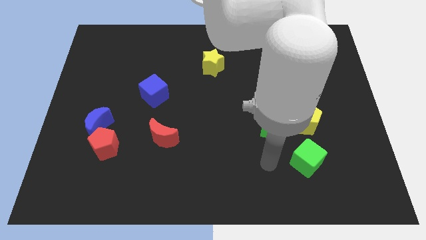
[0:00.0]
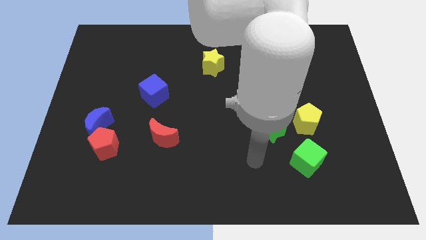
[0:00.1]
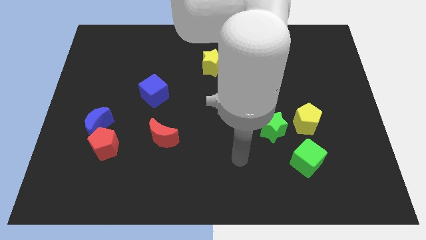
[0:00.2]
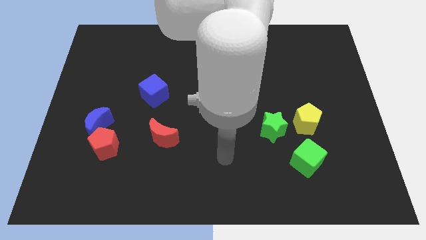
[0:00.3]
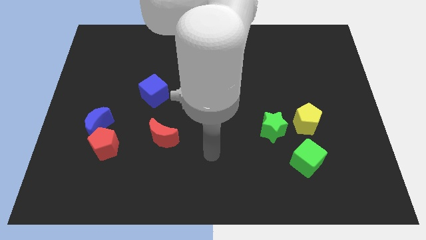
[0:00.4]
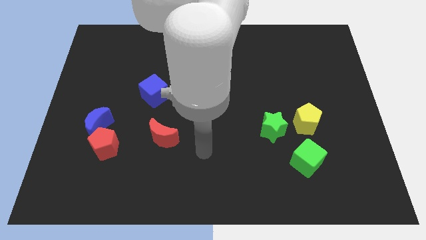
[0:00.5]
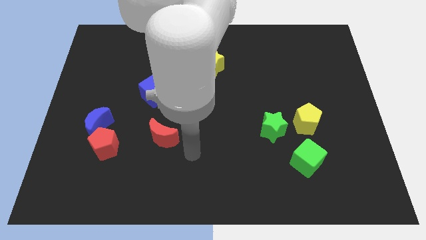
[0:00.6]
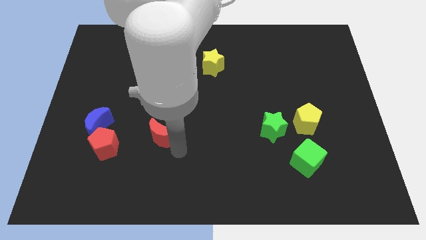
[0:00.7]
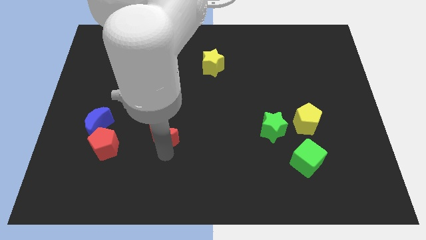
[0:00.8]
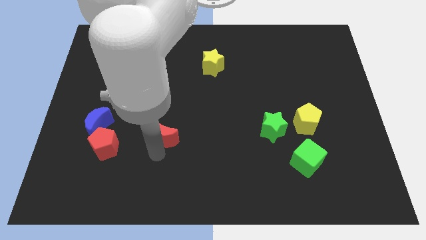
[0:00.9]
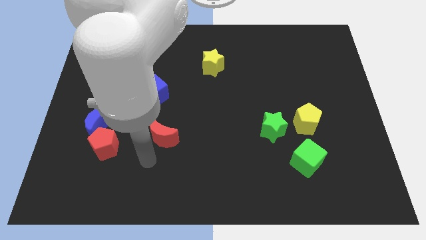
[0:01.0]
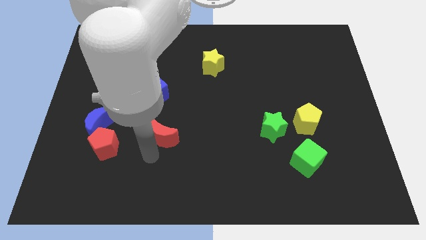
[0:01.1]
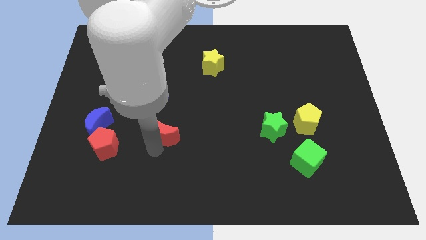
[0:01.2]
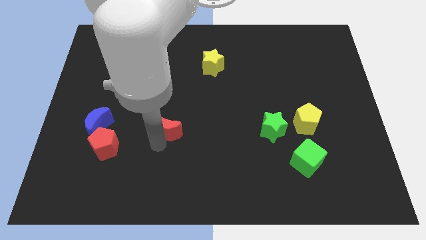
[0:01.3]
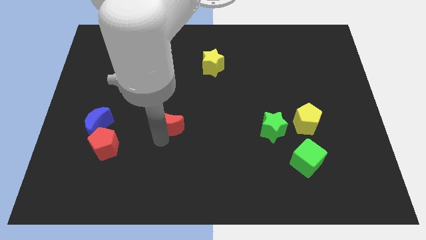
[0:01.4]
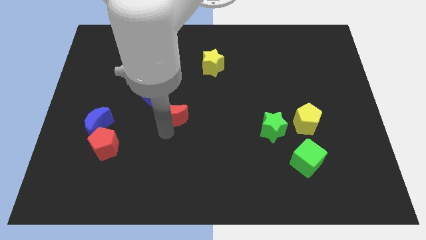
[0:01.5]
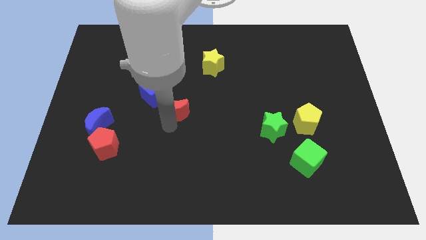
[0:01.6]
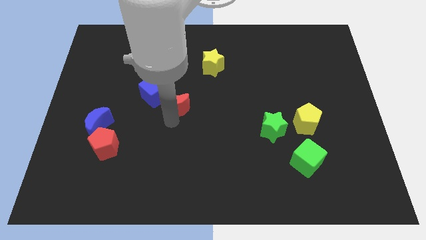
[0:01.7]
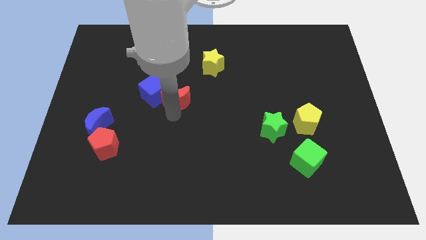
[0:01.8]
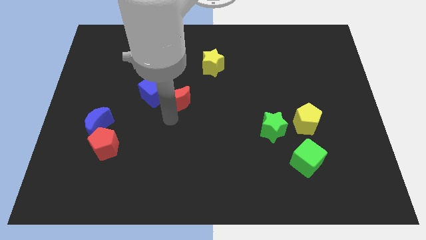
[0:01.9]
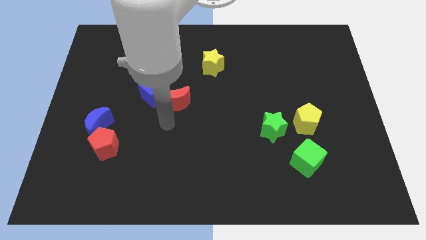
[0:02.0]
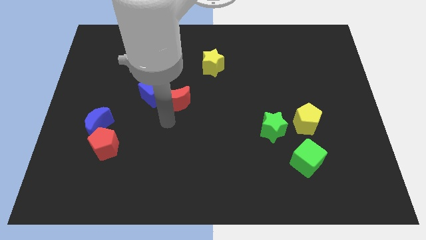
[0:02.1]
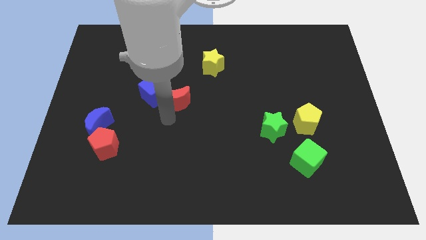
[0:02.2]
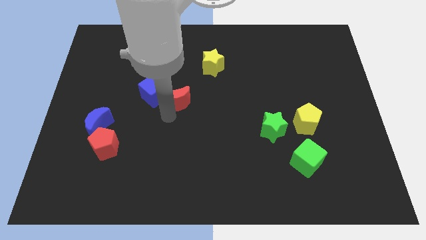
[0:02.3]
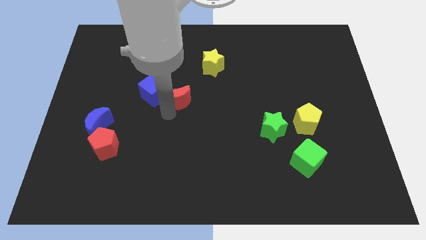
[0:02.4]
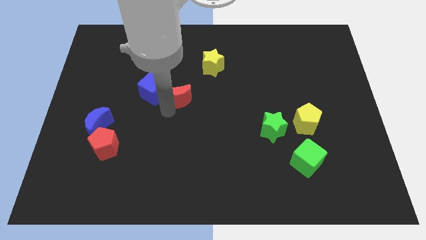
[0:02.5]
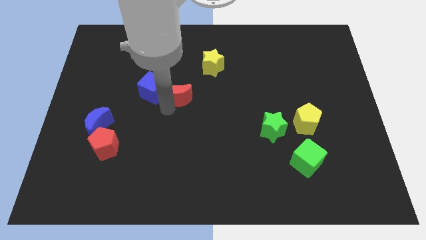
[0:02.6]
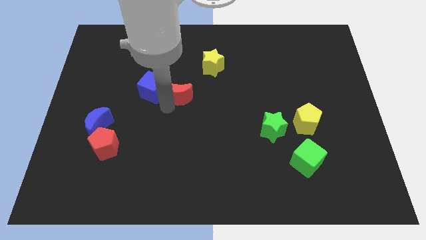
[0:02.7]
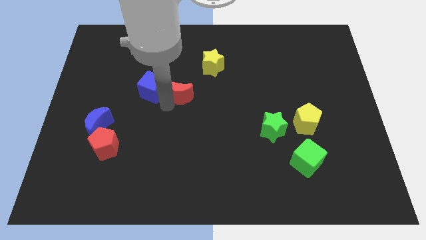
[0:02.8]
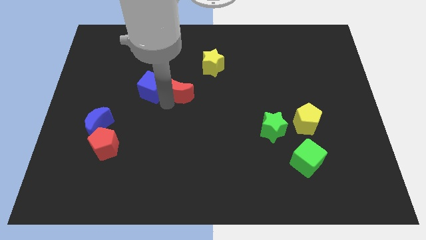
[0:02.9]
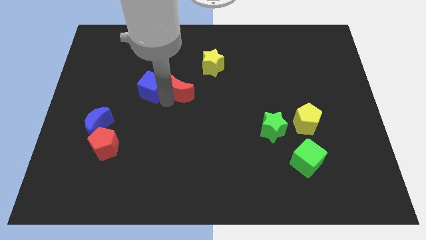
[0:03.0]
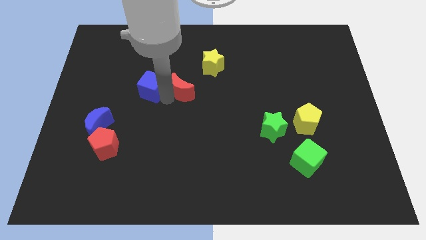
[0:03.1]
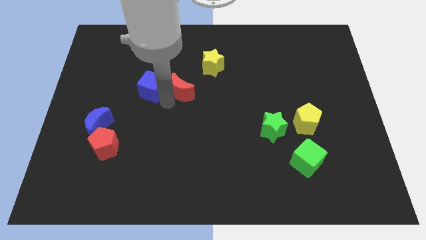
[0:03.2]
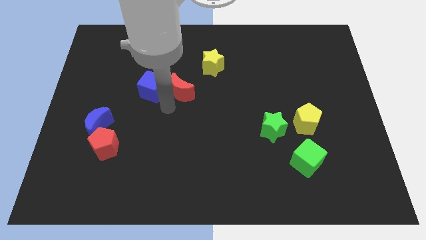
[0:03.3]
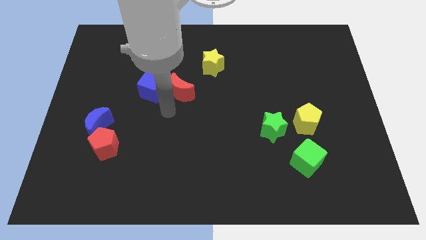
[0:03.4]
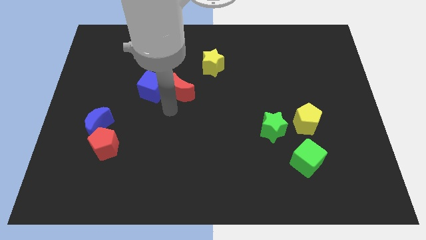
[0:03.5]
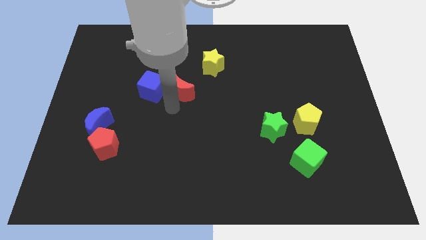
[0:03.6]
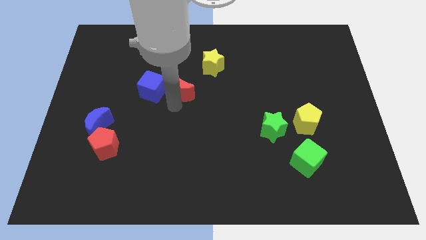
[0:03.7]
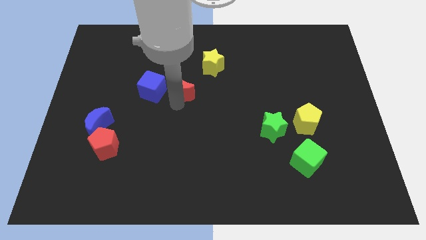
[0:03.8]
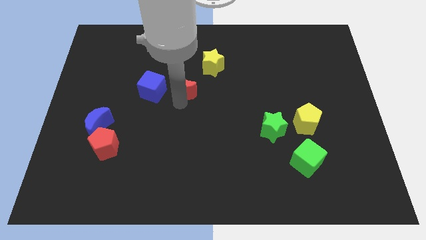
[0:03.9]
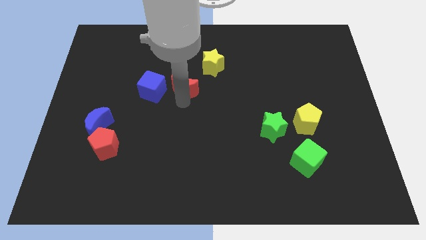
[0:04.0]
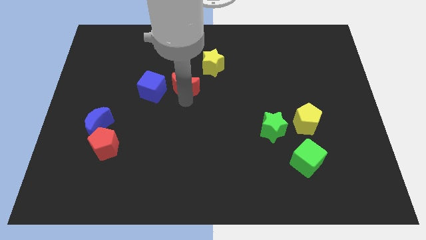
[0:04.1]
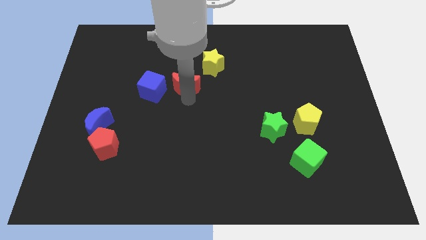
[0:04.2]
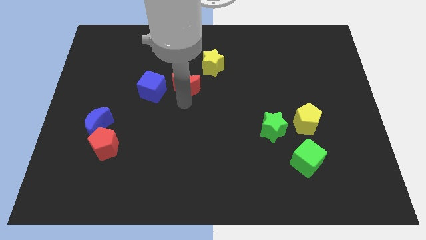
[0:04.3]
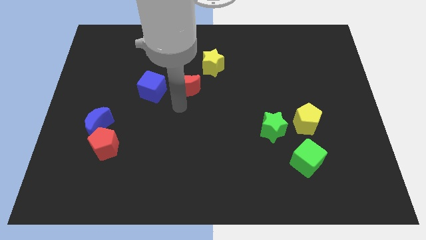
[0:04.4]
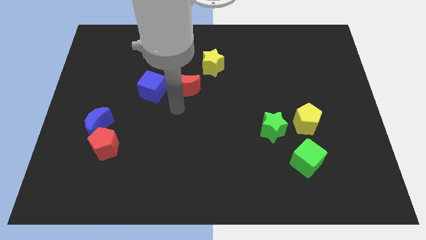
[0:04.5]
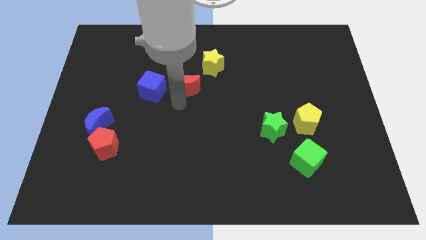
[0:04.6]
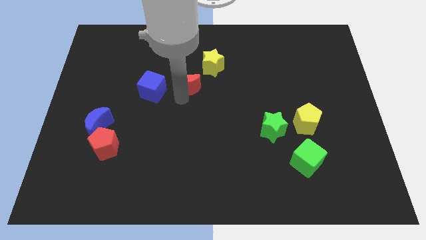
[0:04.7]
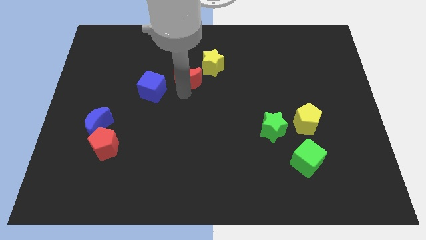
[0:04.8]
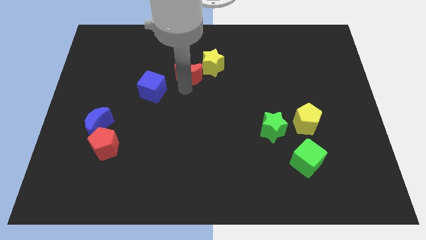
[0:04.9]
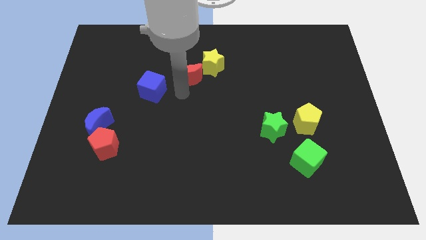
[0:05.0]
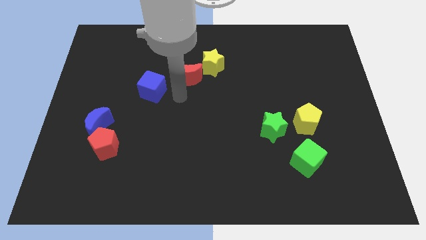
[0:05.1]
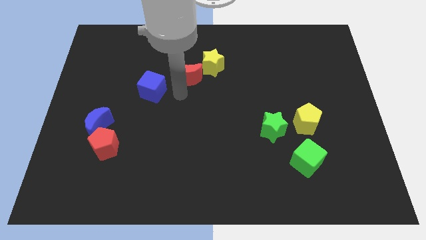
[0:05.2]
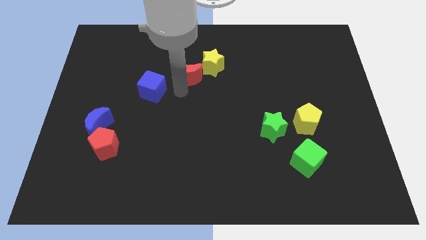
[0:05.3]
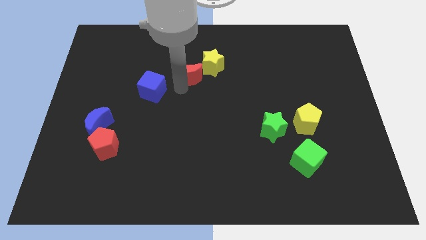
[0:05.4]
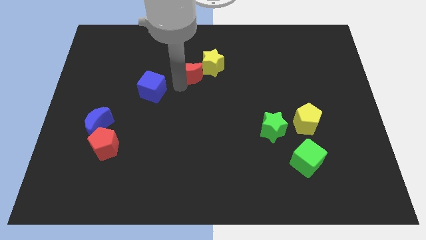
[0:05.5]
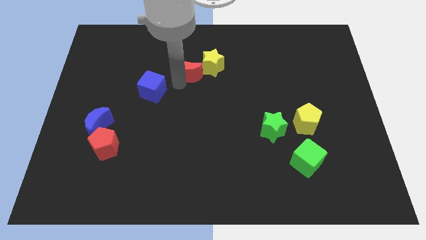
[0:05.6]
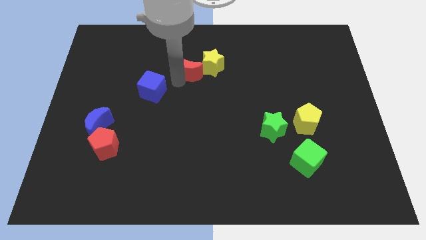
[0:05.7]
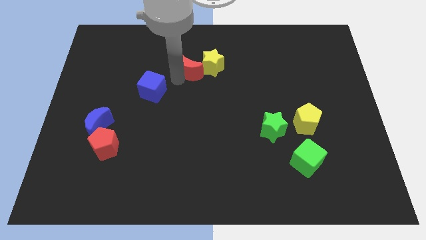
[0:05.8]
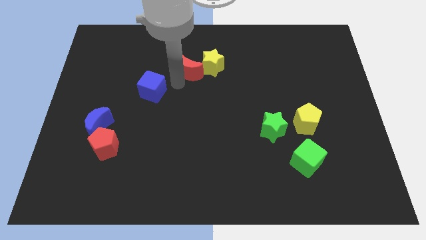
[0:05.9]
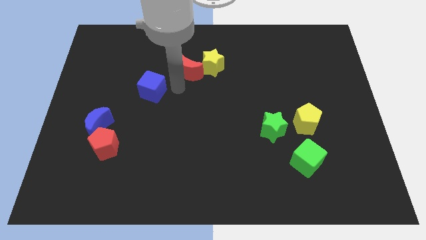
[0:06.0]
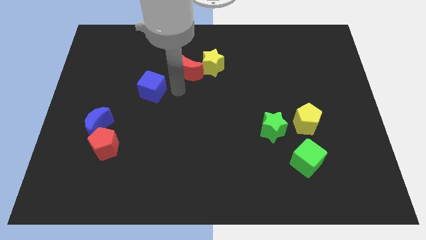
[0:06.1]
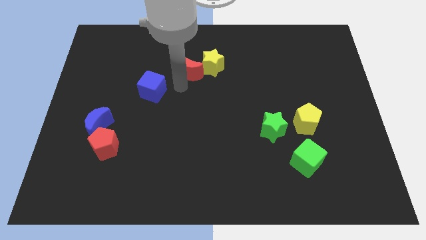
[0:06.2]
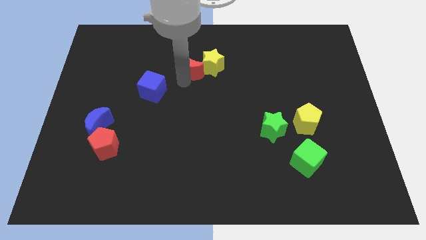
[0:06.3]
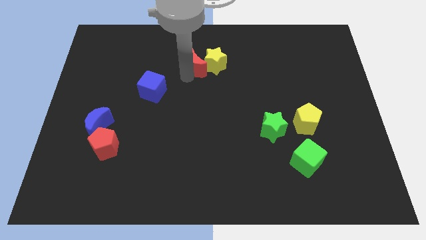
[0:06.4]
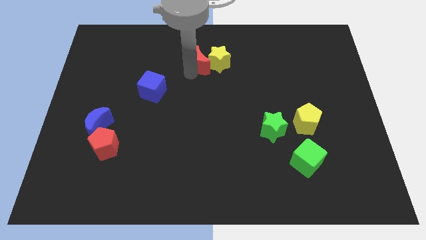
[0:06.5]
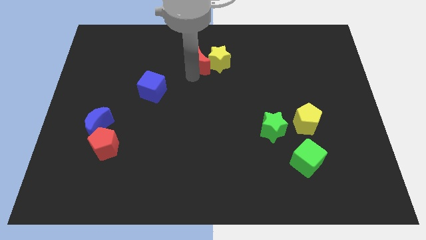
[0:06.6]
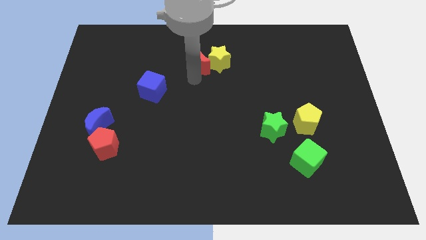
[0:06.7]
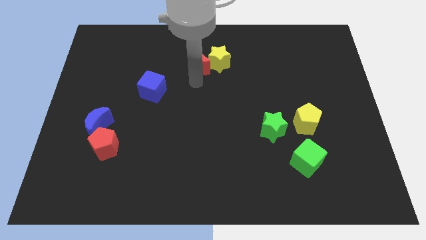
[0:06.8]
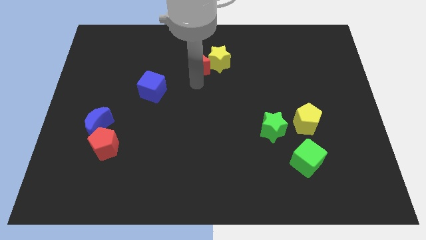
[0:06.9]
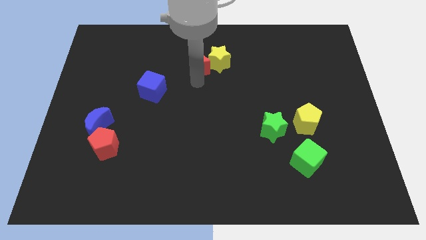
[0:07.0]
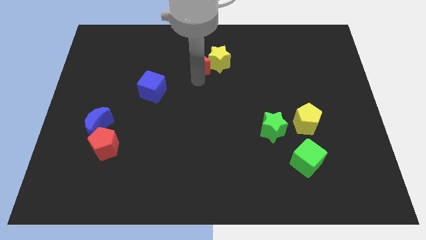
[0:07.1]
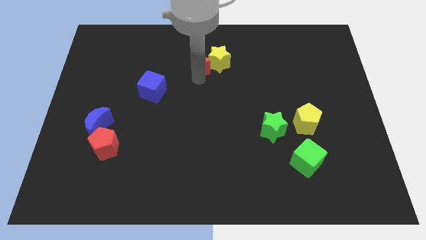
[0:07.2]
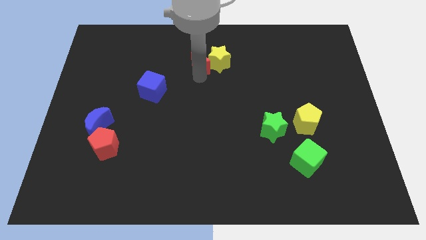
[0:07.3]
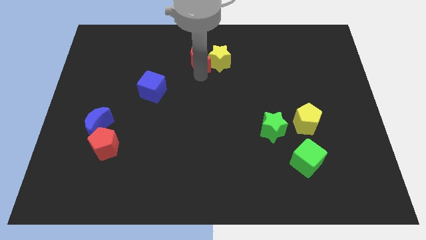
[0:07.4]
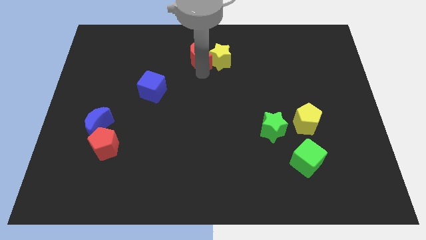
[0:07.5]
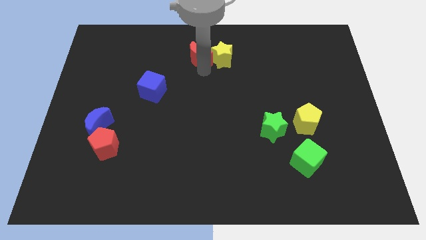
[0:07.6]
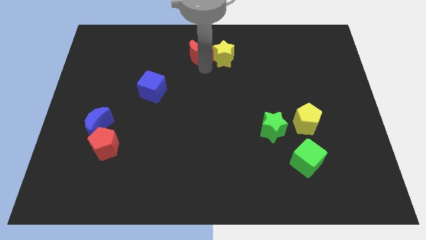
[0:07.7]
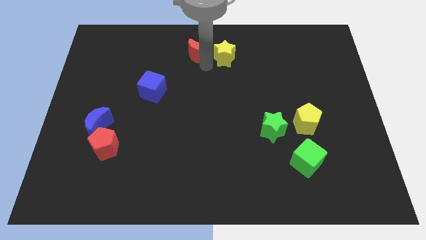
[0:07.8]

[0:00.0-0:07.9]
move the red moon to the top side
